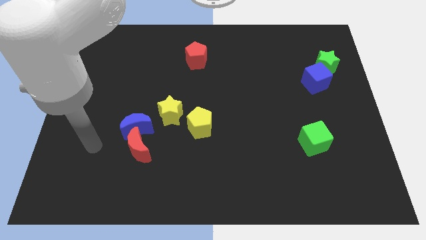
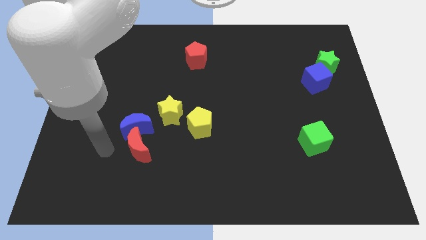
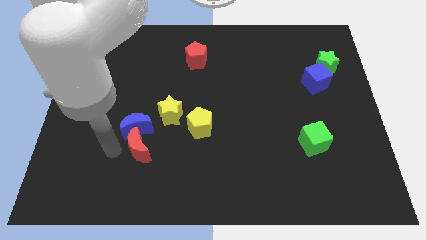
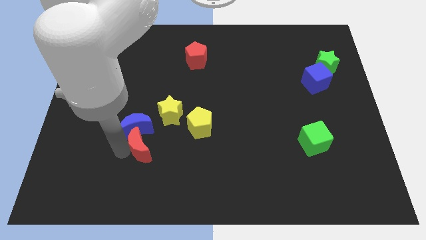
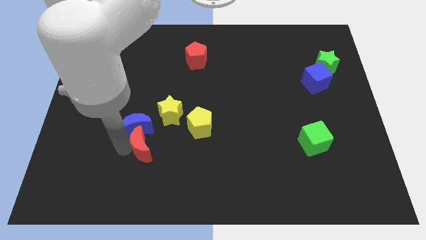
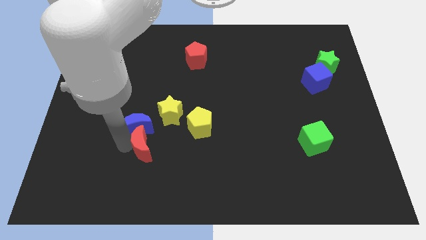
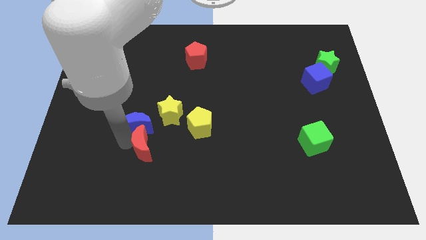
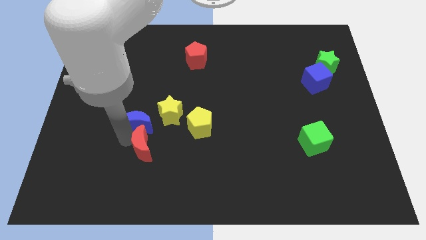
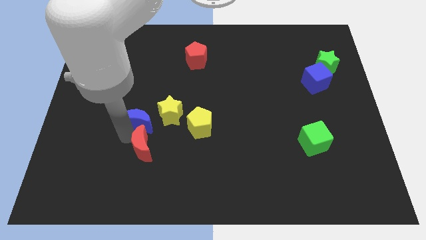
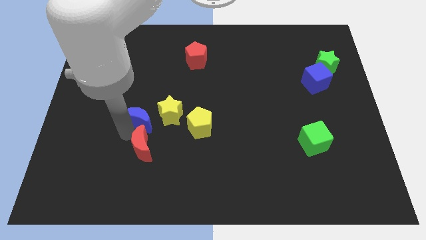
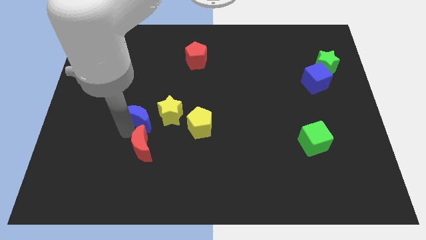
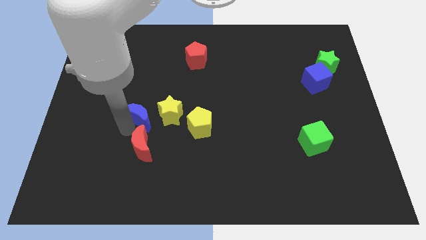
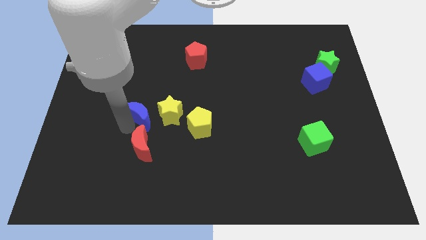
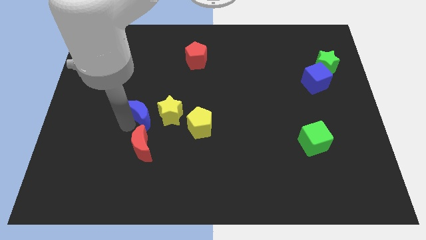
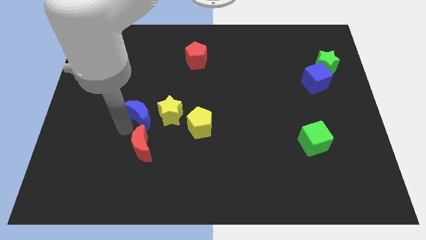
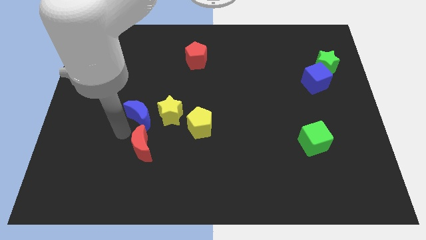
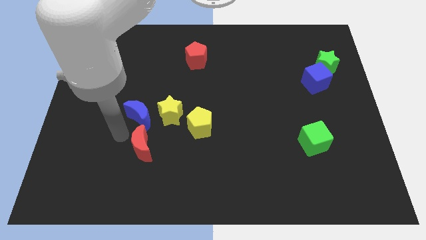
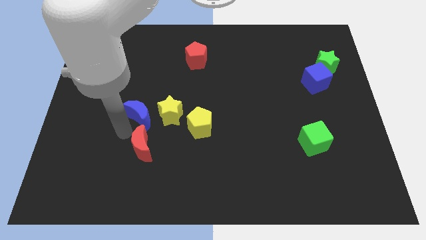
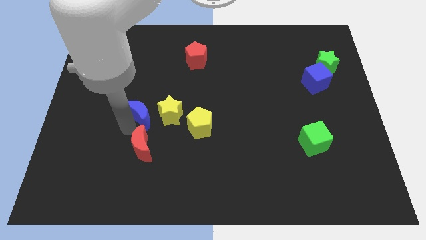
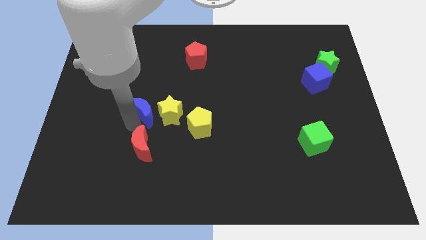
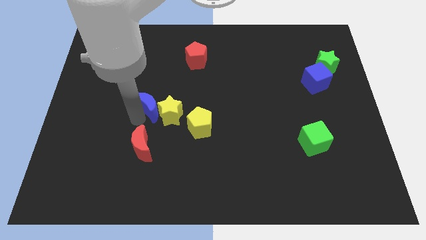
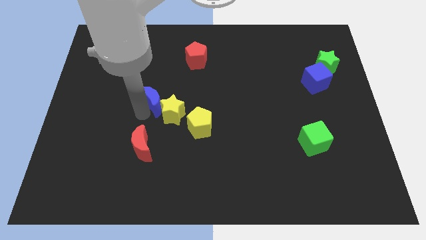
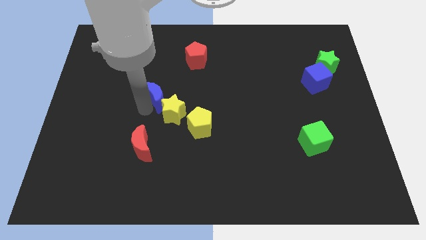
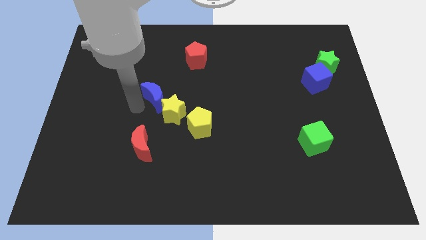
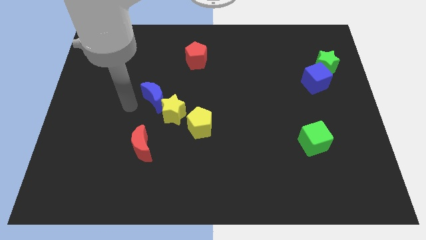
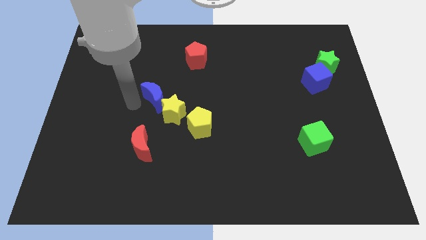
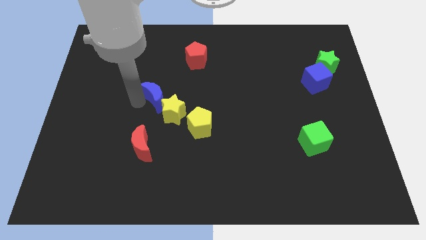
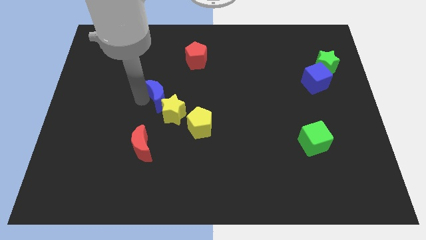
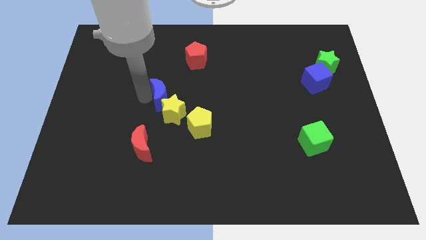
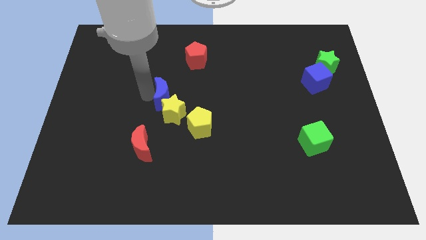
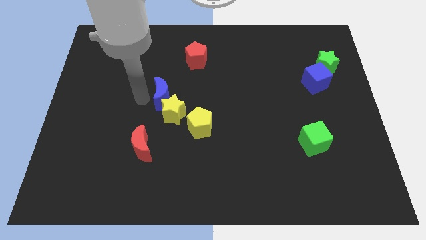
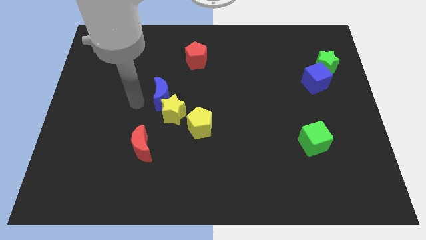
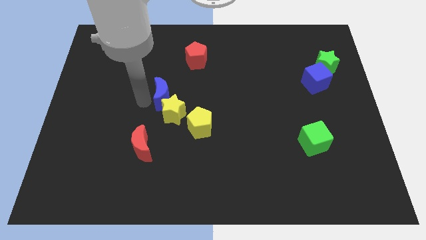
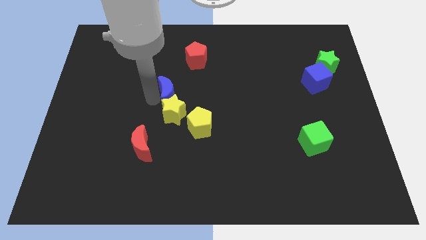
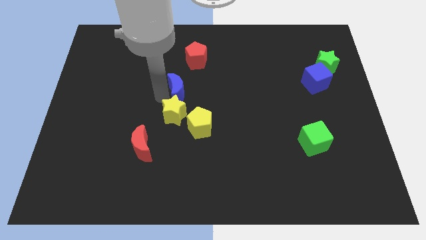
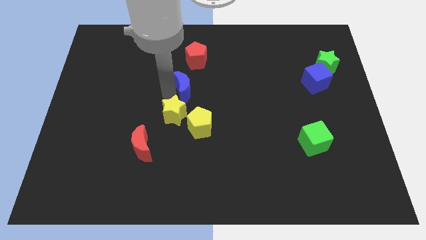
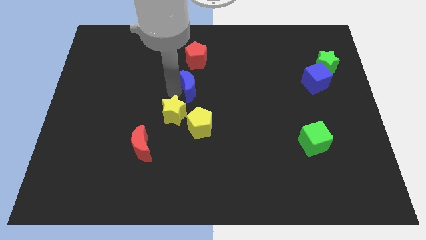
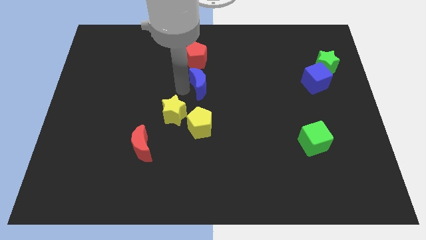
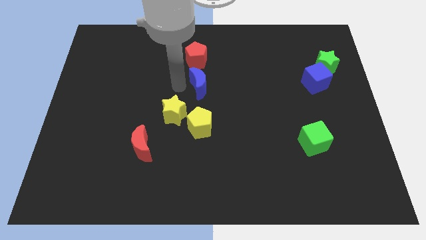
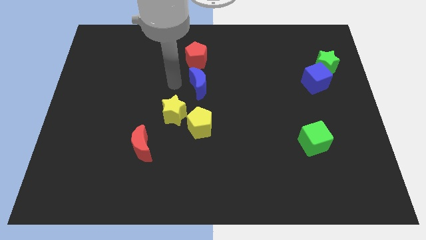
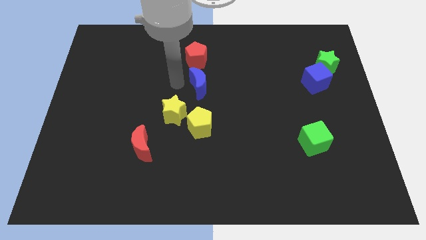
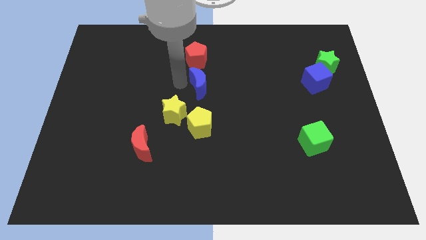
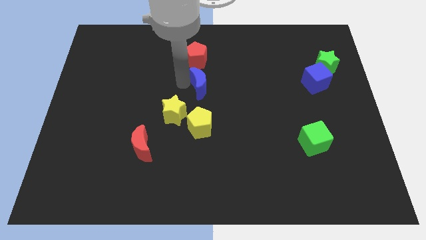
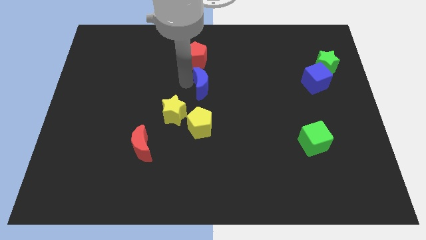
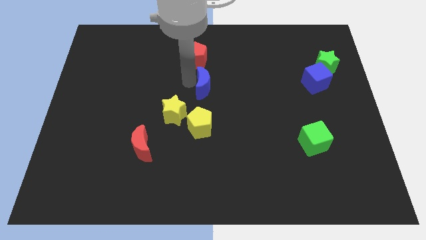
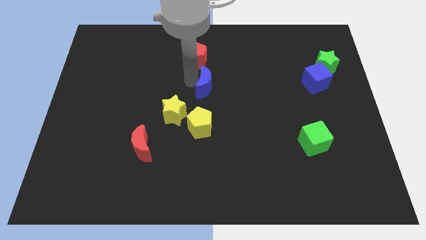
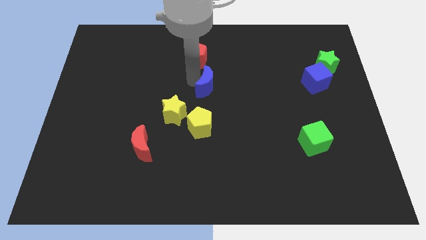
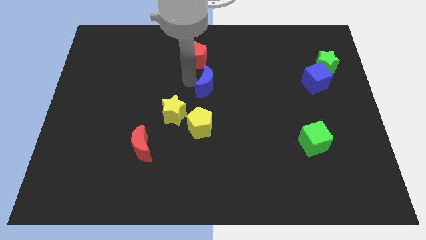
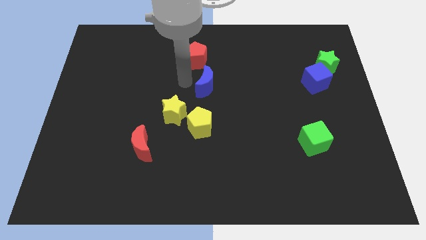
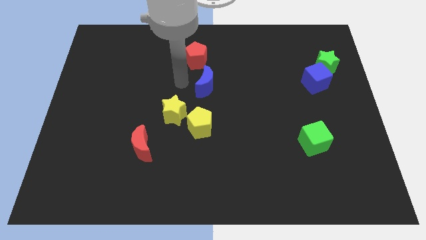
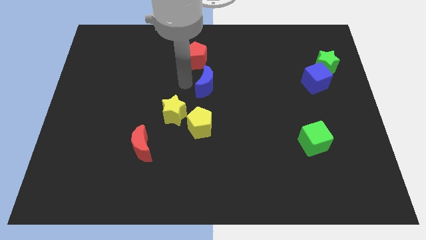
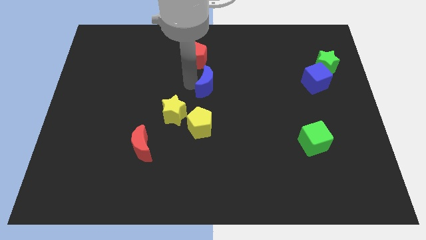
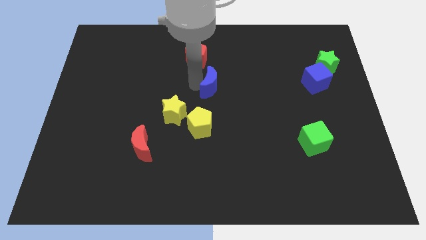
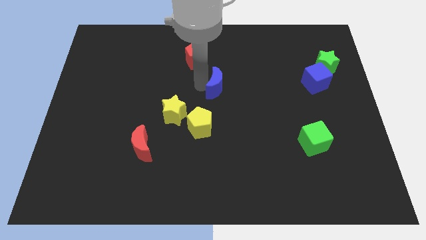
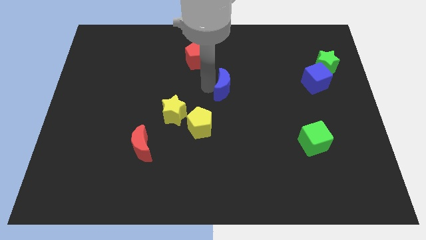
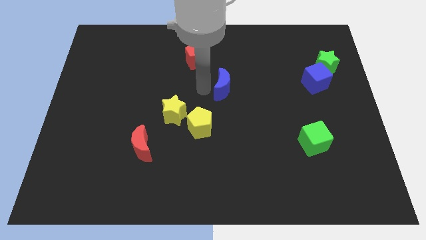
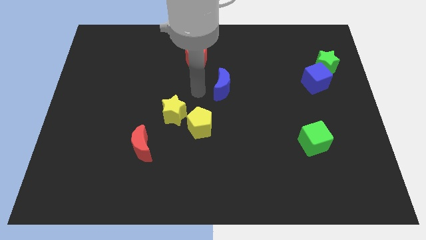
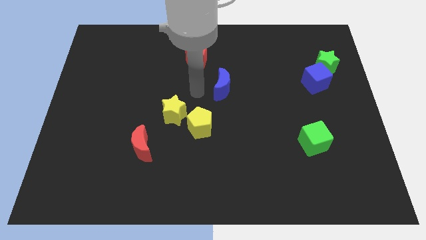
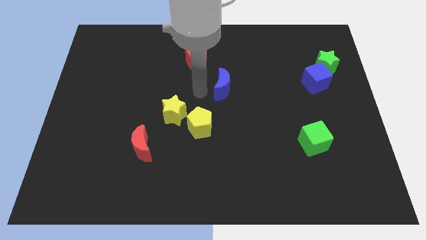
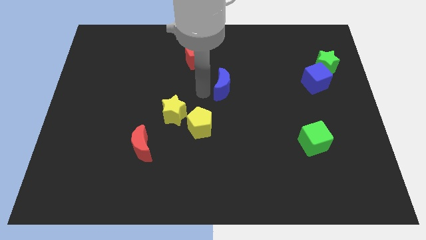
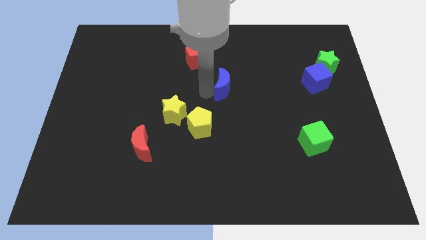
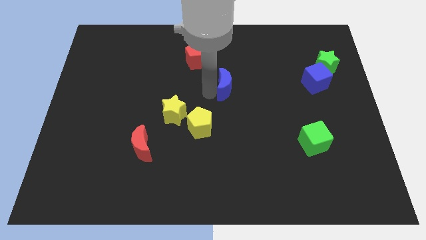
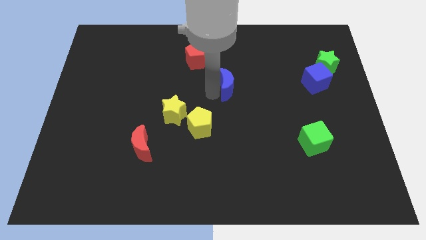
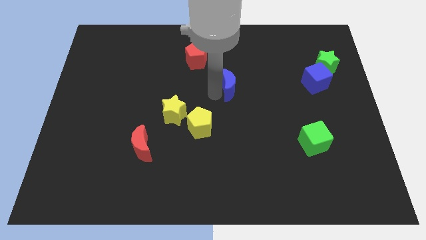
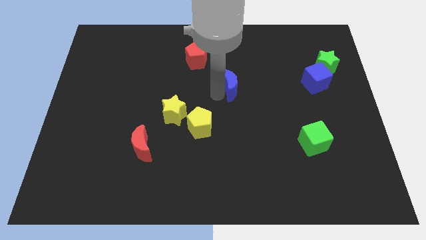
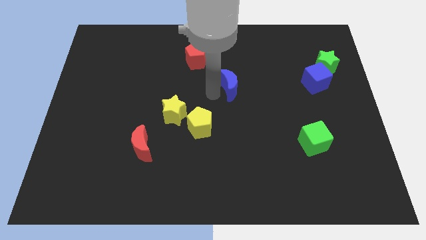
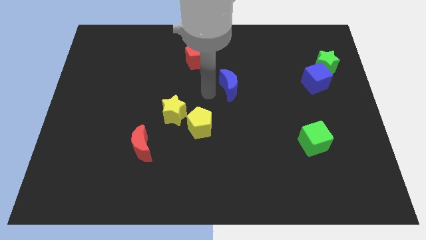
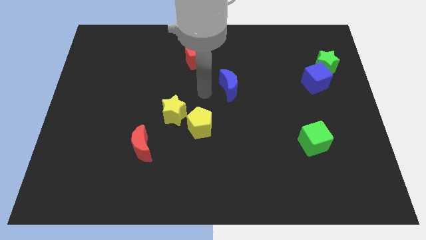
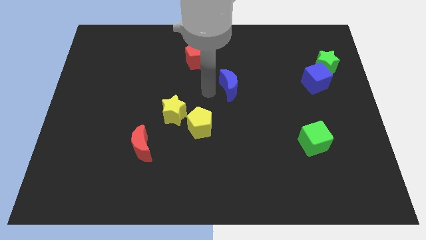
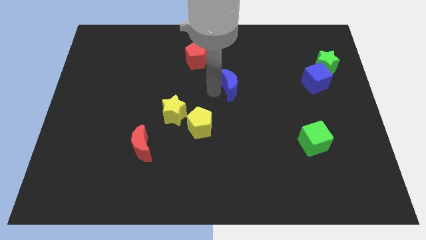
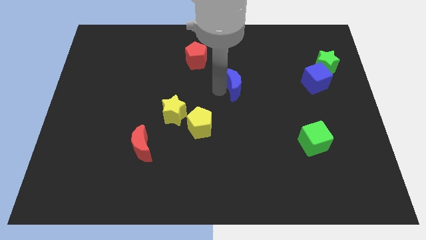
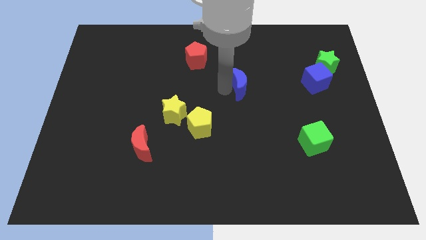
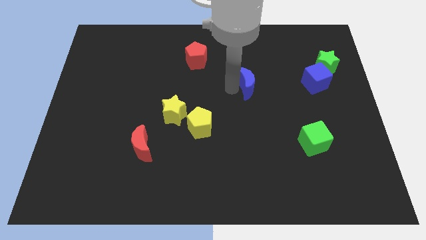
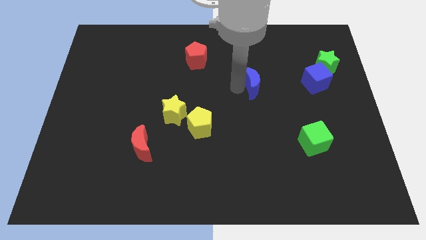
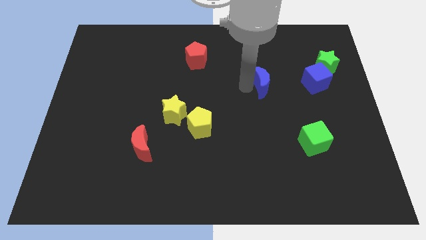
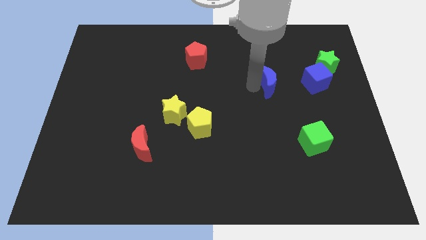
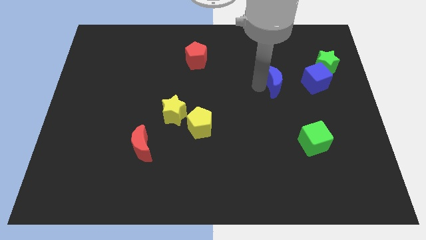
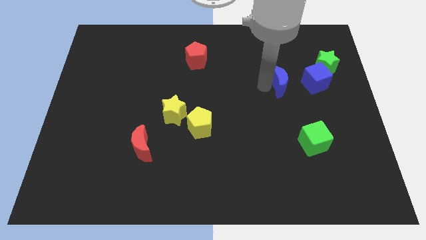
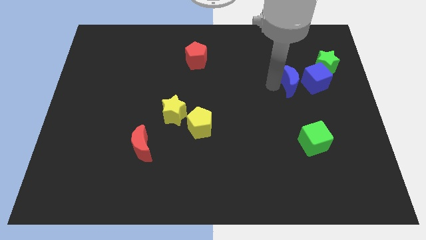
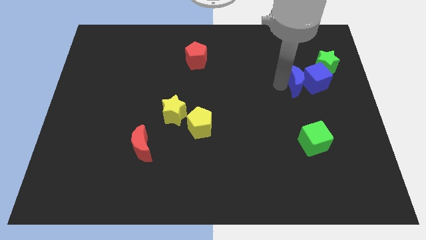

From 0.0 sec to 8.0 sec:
slide the blue moon close to the blue cube
